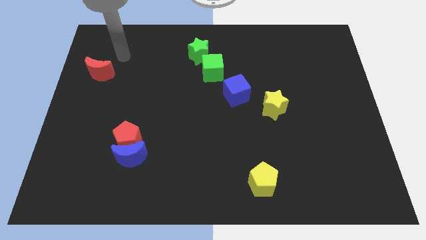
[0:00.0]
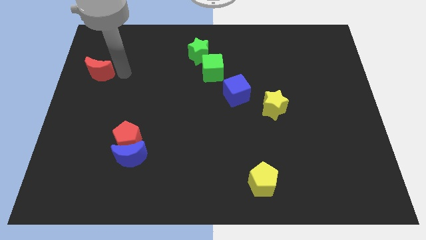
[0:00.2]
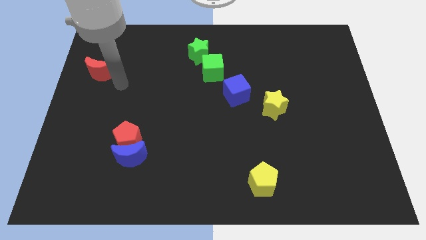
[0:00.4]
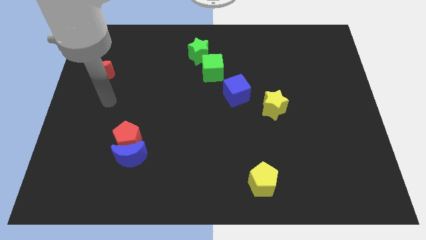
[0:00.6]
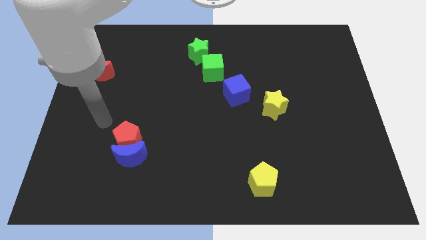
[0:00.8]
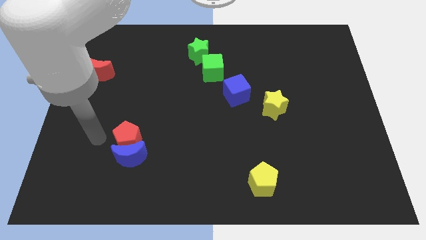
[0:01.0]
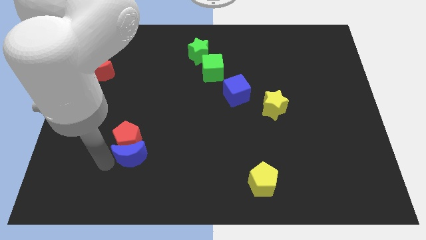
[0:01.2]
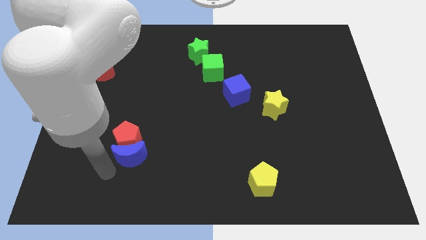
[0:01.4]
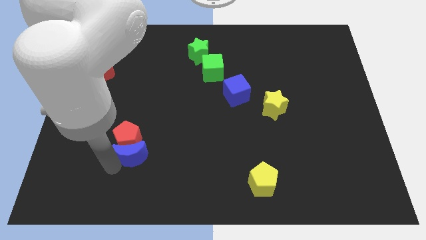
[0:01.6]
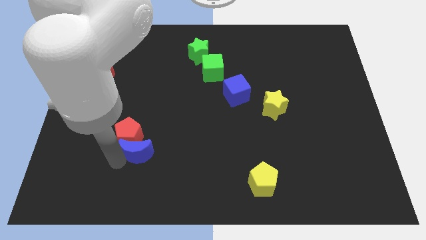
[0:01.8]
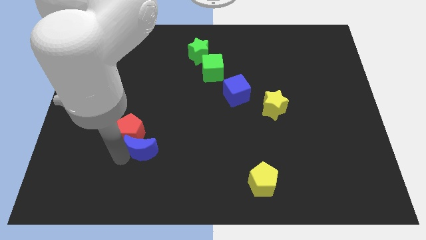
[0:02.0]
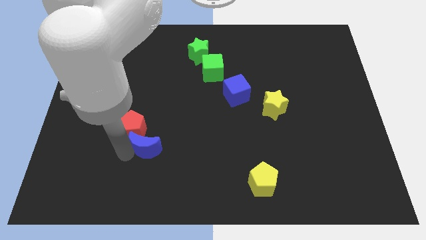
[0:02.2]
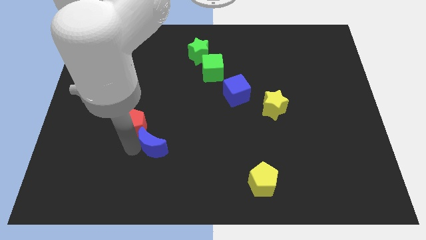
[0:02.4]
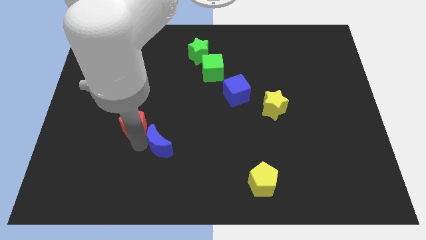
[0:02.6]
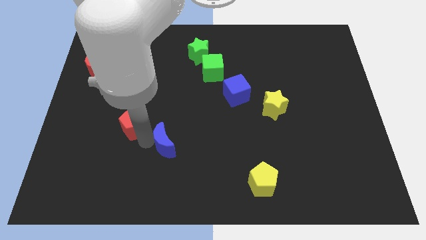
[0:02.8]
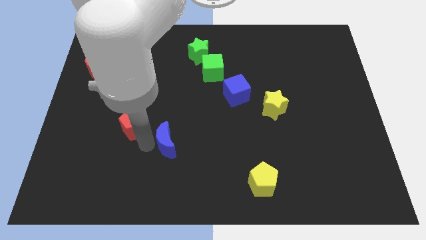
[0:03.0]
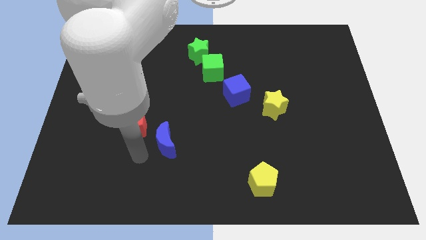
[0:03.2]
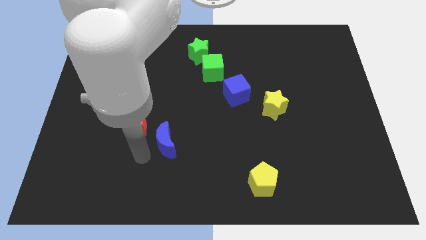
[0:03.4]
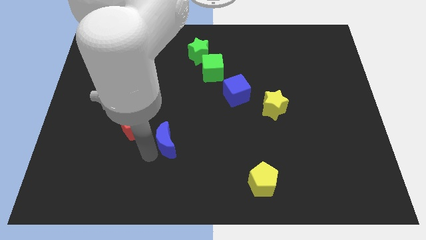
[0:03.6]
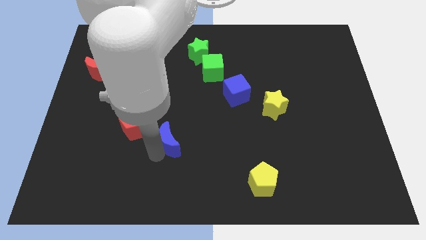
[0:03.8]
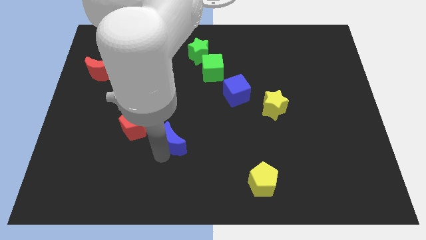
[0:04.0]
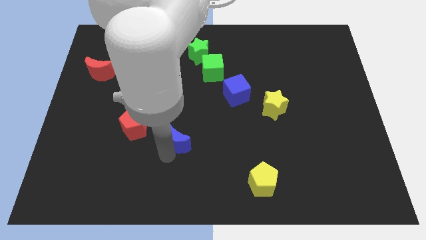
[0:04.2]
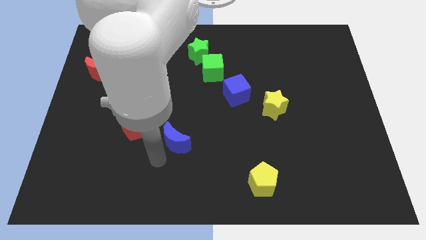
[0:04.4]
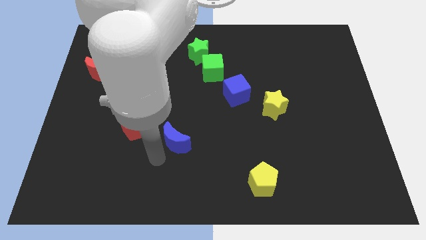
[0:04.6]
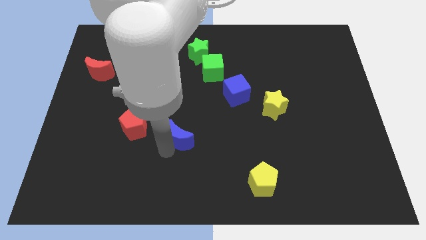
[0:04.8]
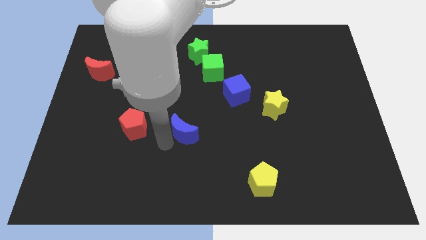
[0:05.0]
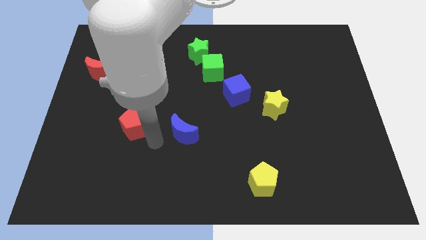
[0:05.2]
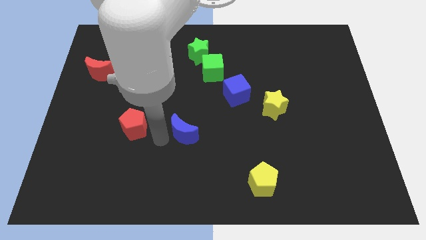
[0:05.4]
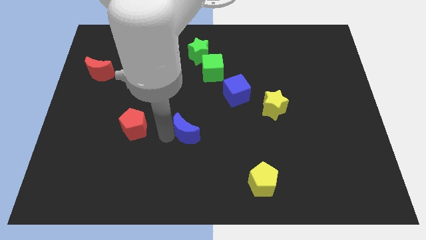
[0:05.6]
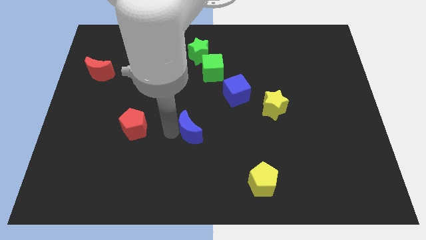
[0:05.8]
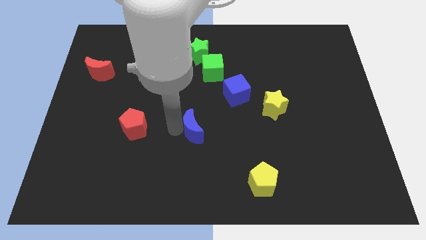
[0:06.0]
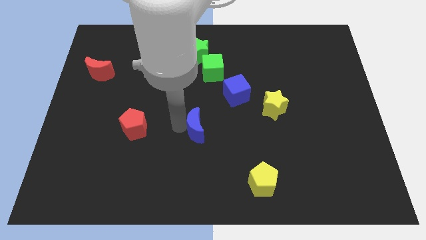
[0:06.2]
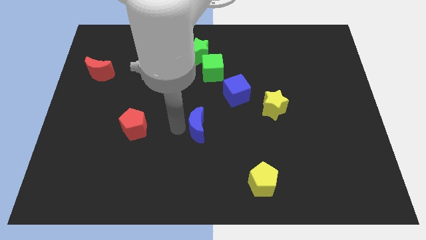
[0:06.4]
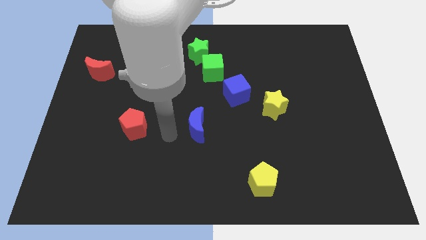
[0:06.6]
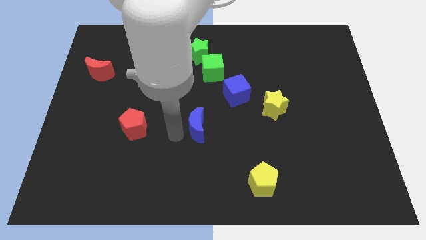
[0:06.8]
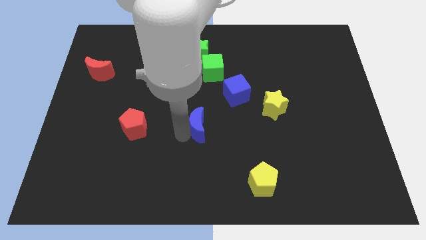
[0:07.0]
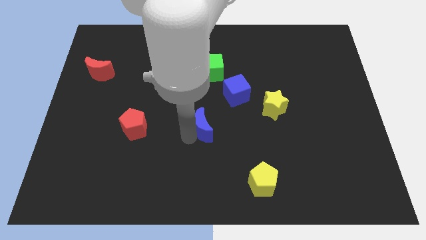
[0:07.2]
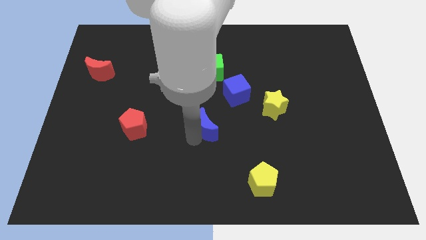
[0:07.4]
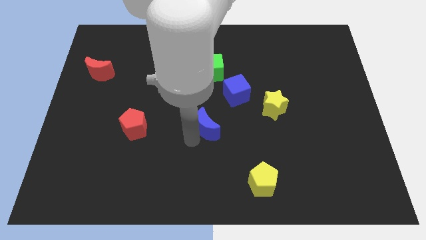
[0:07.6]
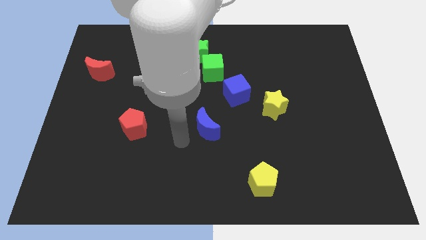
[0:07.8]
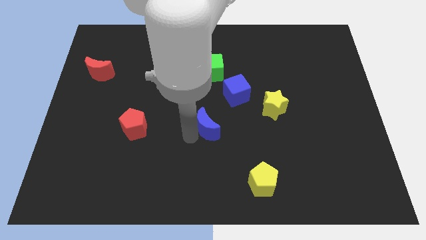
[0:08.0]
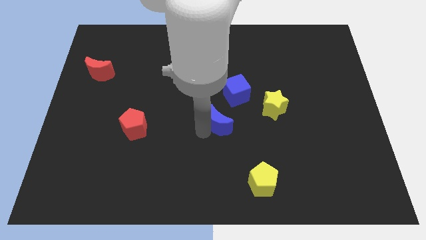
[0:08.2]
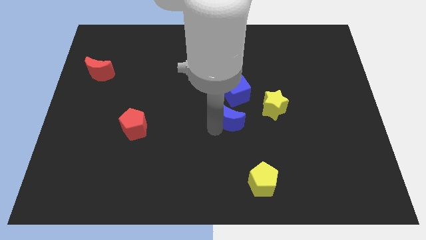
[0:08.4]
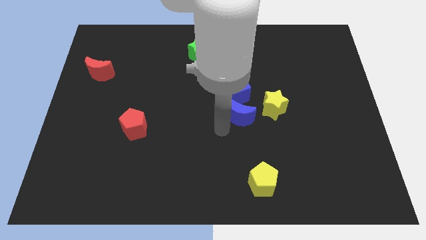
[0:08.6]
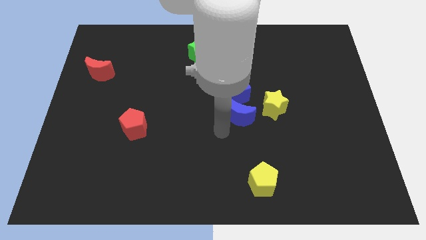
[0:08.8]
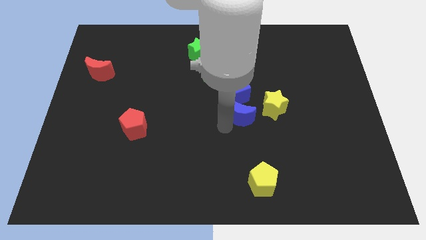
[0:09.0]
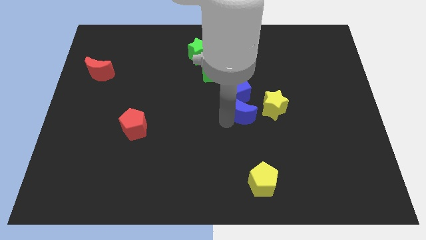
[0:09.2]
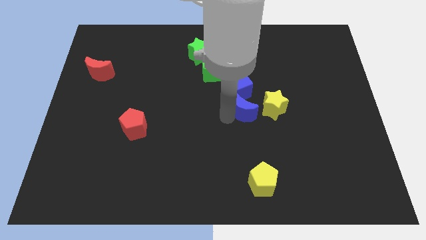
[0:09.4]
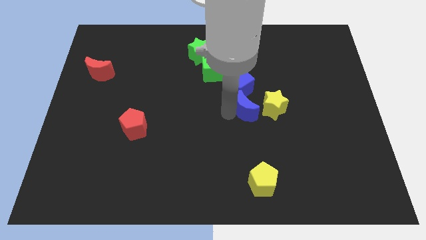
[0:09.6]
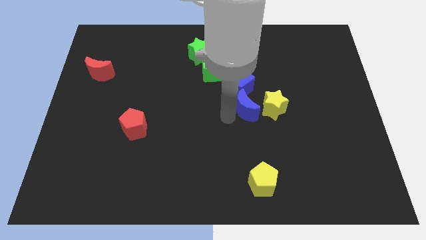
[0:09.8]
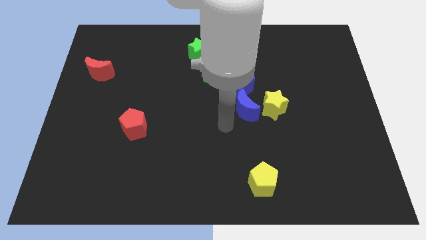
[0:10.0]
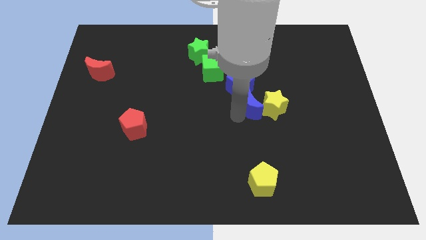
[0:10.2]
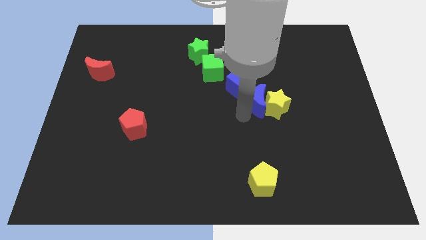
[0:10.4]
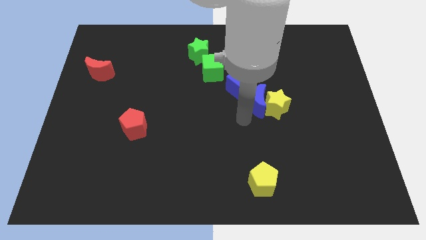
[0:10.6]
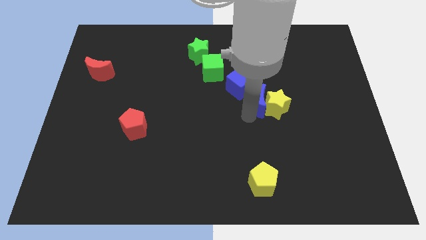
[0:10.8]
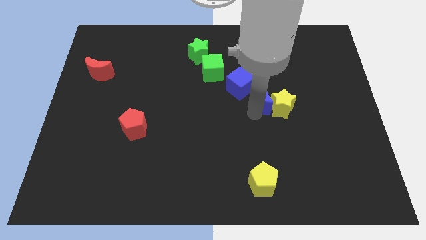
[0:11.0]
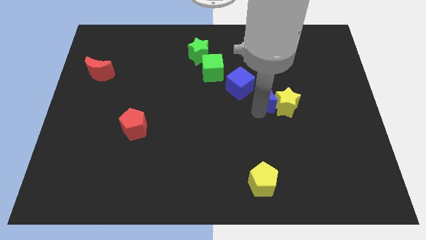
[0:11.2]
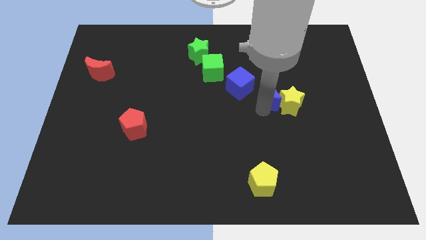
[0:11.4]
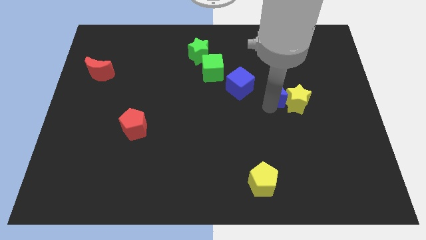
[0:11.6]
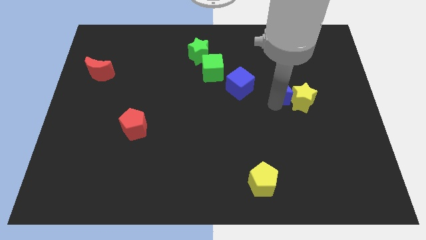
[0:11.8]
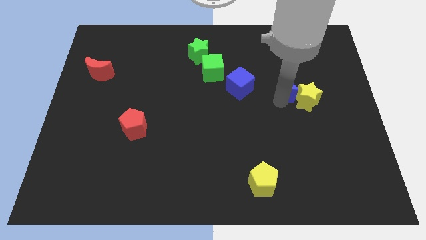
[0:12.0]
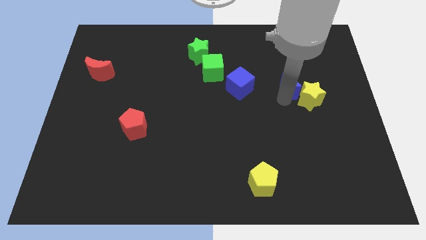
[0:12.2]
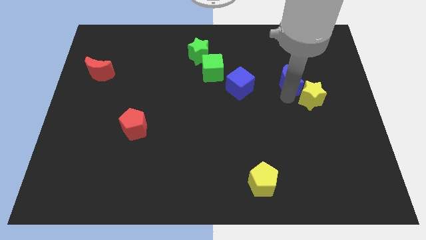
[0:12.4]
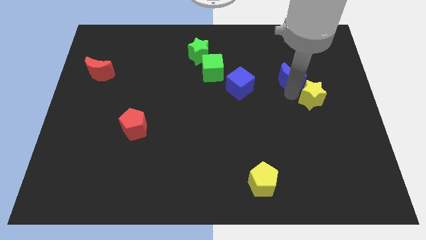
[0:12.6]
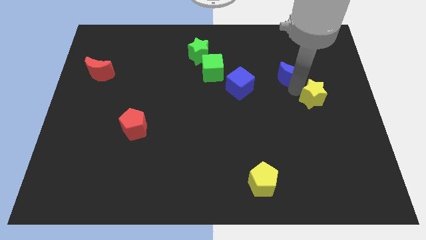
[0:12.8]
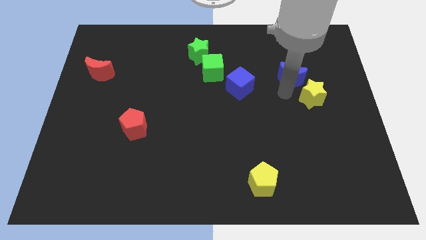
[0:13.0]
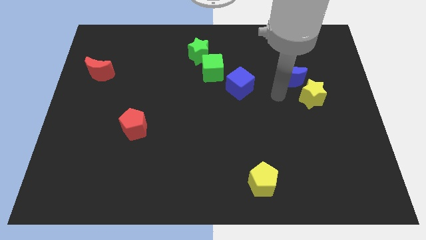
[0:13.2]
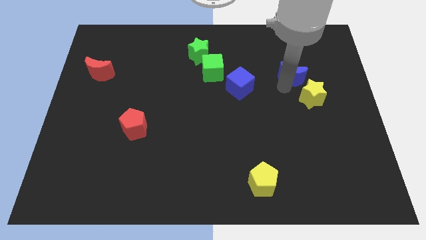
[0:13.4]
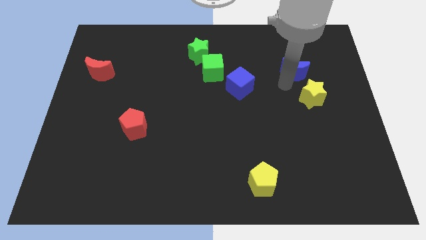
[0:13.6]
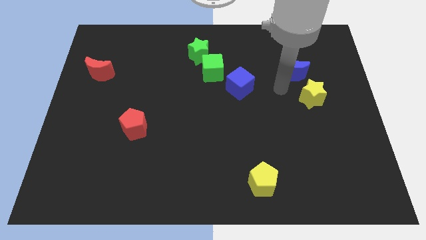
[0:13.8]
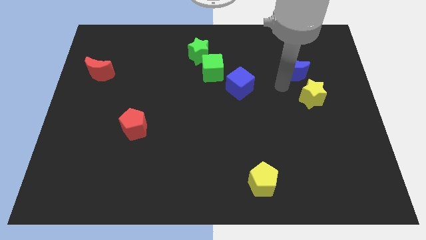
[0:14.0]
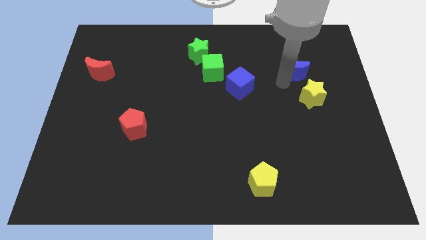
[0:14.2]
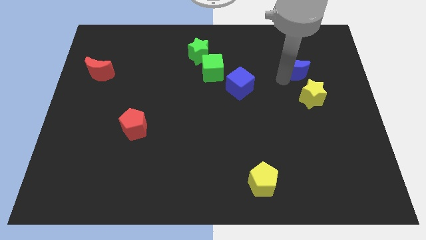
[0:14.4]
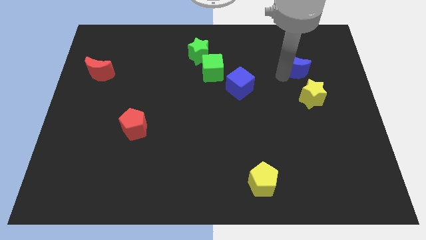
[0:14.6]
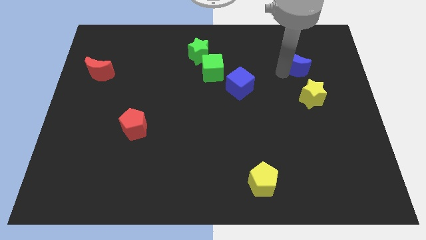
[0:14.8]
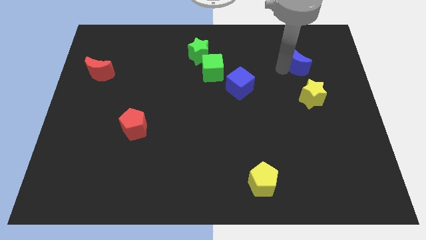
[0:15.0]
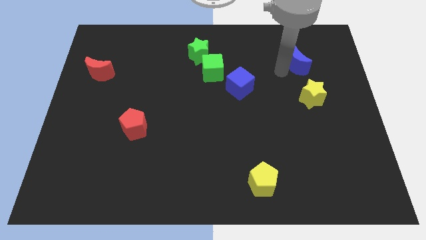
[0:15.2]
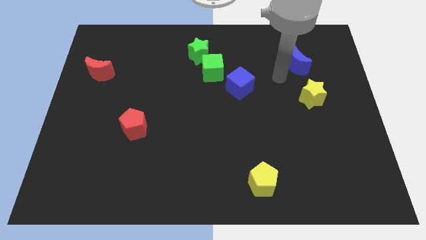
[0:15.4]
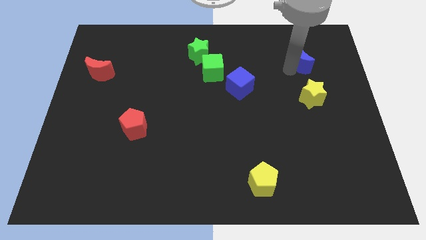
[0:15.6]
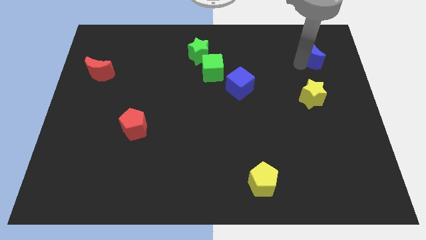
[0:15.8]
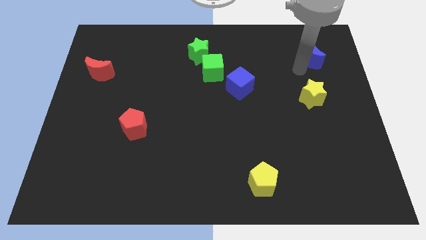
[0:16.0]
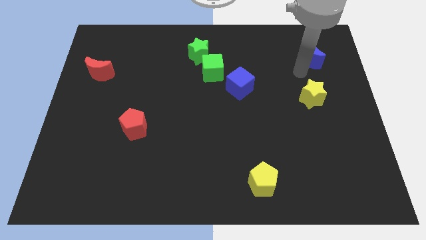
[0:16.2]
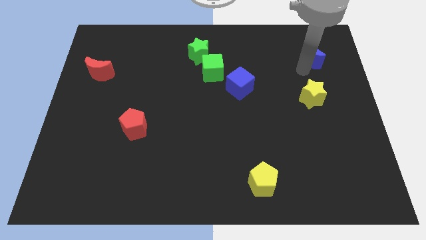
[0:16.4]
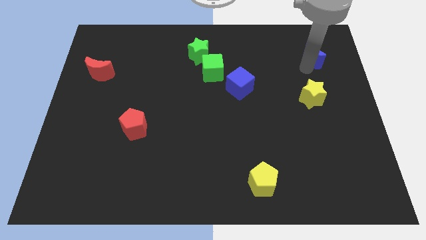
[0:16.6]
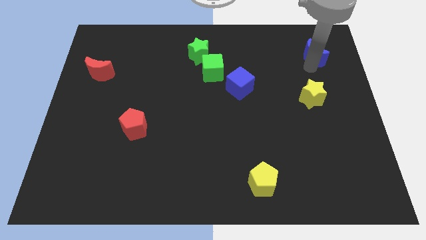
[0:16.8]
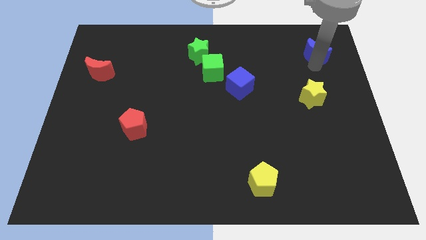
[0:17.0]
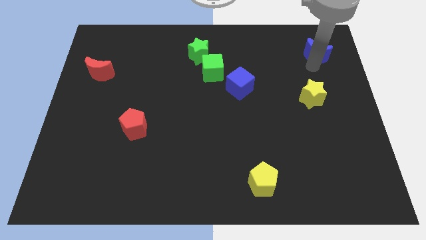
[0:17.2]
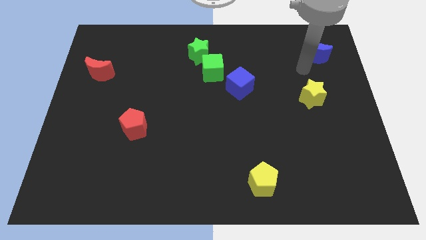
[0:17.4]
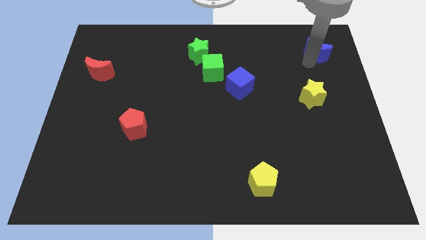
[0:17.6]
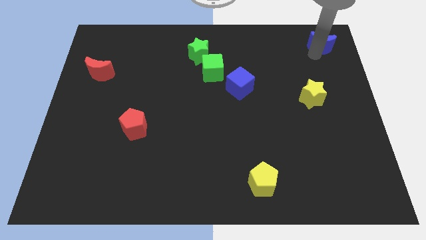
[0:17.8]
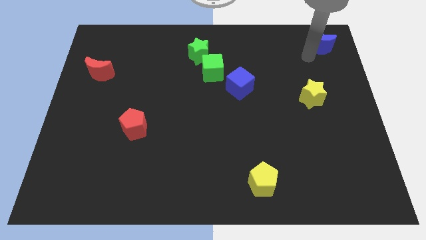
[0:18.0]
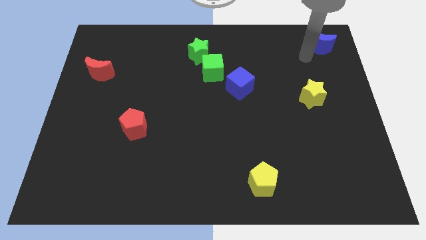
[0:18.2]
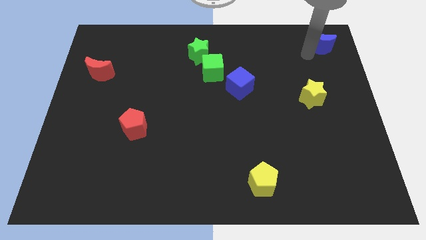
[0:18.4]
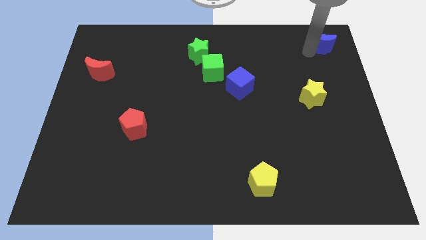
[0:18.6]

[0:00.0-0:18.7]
slide the blue moon to the top right corner
